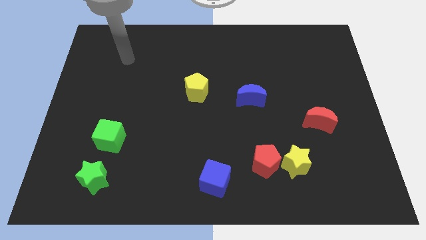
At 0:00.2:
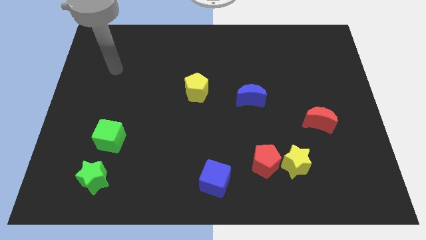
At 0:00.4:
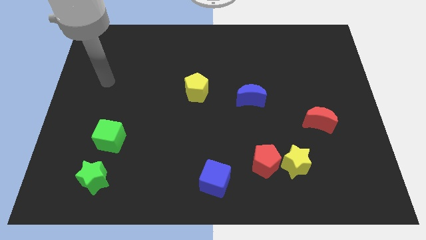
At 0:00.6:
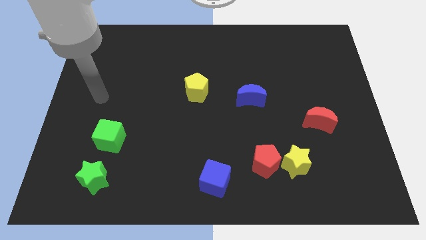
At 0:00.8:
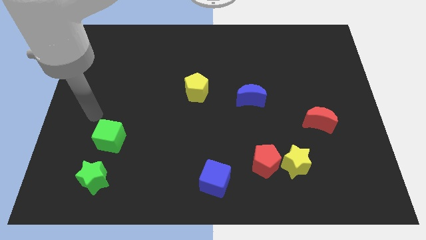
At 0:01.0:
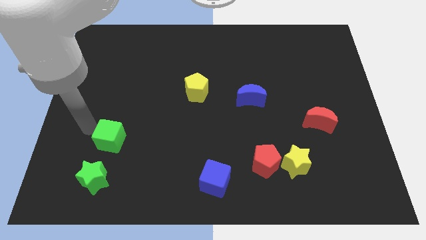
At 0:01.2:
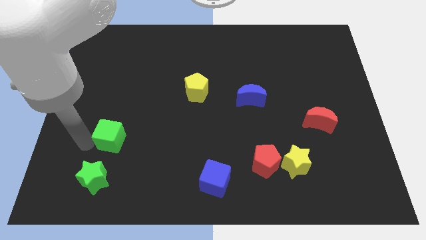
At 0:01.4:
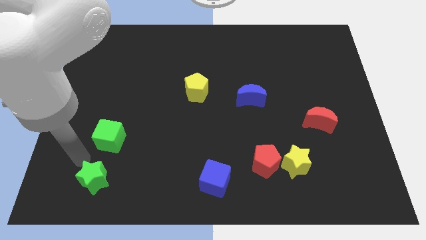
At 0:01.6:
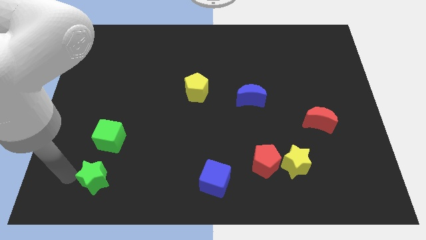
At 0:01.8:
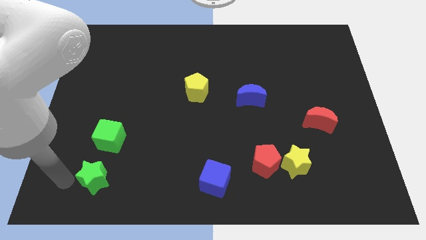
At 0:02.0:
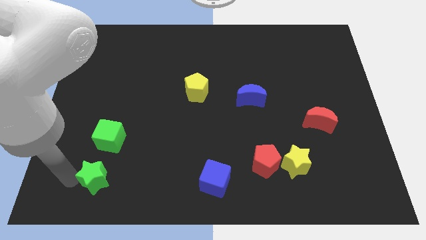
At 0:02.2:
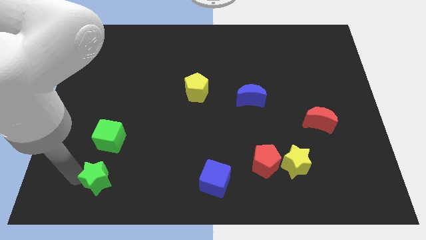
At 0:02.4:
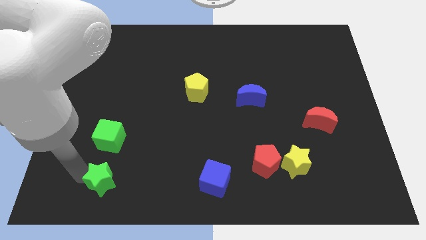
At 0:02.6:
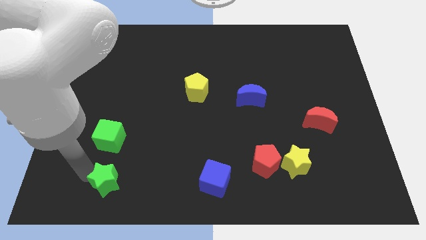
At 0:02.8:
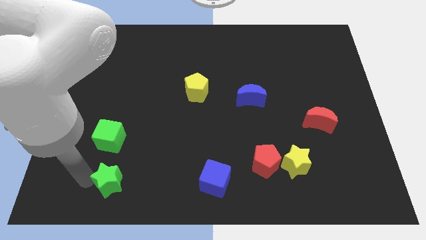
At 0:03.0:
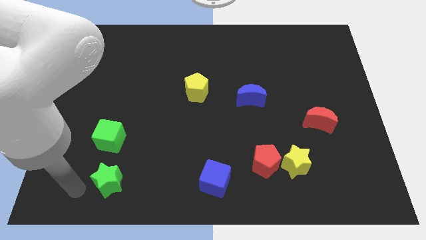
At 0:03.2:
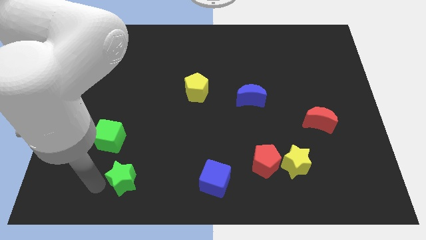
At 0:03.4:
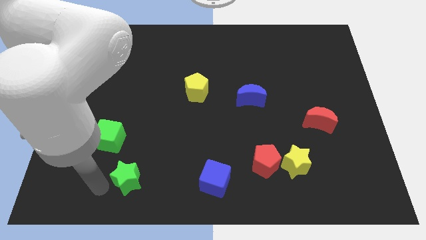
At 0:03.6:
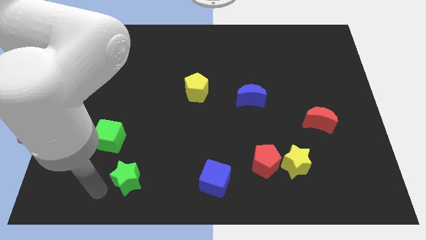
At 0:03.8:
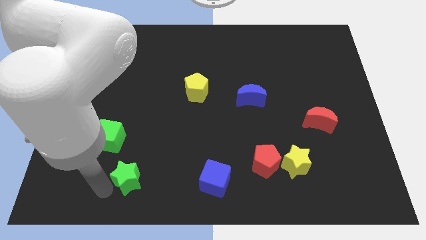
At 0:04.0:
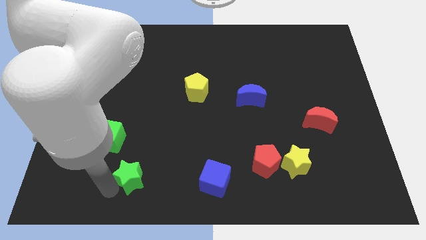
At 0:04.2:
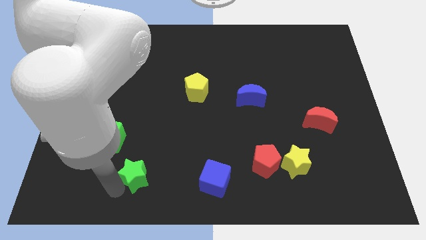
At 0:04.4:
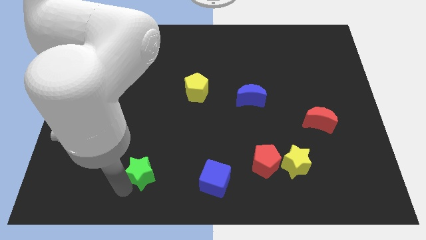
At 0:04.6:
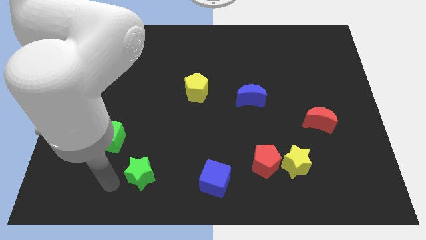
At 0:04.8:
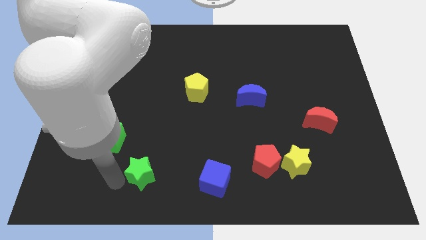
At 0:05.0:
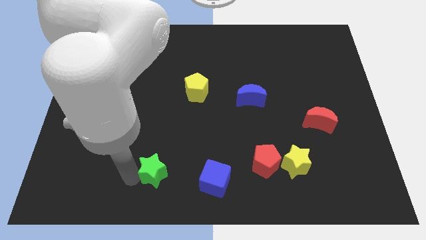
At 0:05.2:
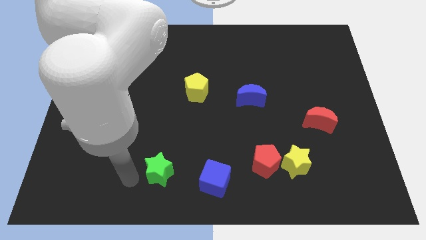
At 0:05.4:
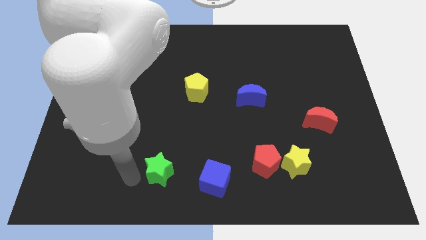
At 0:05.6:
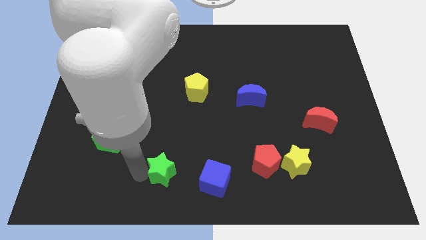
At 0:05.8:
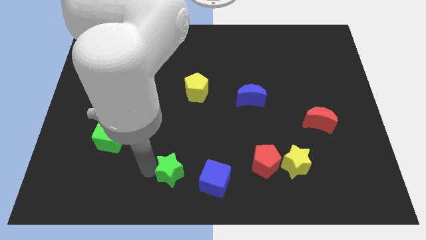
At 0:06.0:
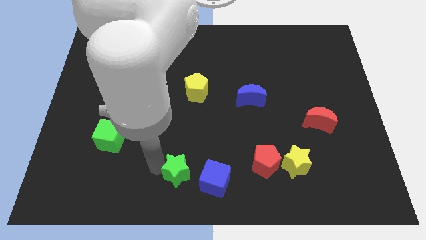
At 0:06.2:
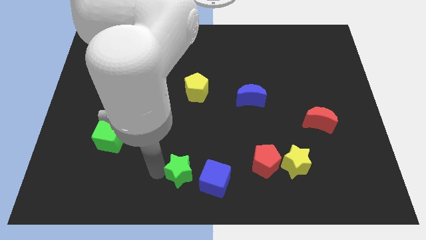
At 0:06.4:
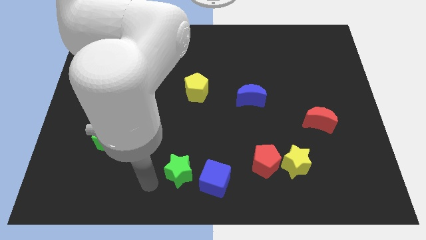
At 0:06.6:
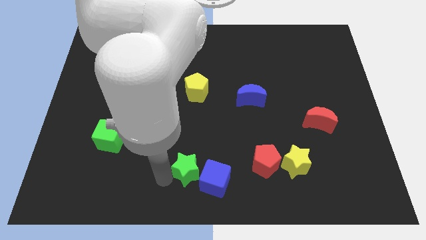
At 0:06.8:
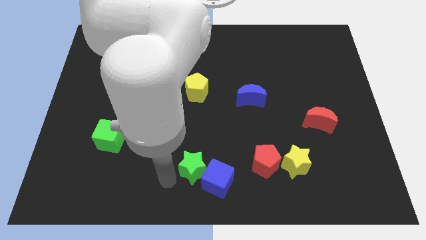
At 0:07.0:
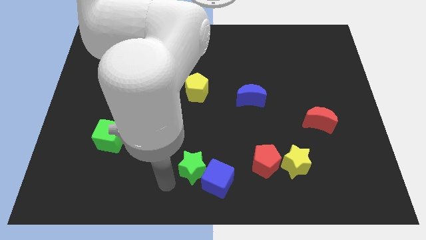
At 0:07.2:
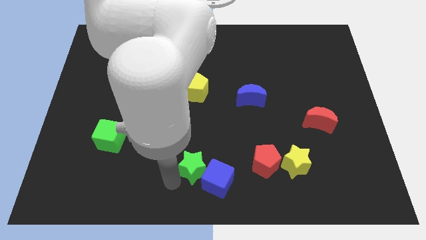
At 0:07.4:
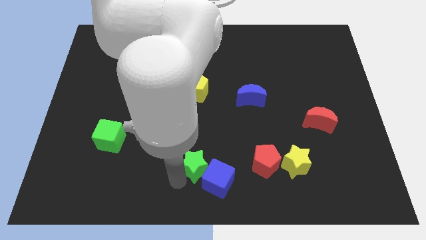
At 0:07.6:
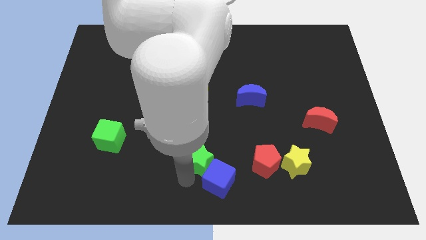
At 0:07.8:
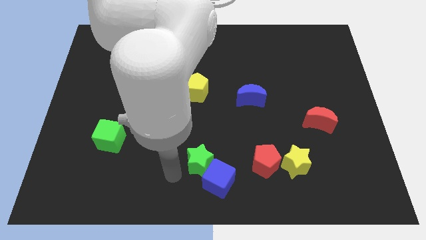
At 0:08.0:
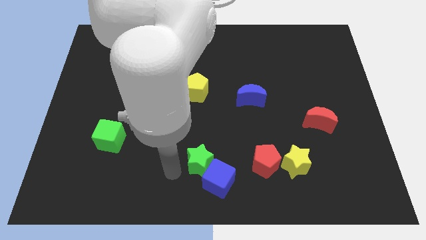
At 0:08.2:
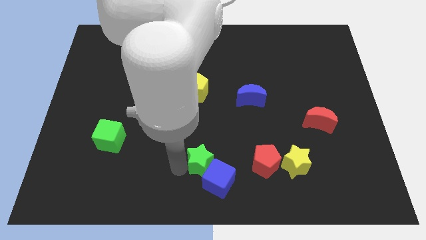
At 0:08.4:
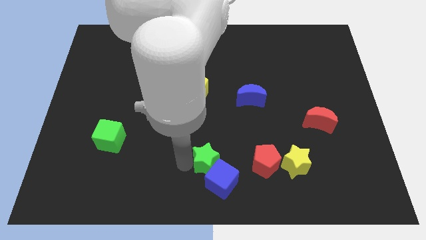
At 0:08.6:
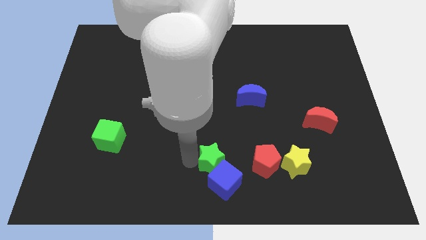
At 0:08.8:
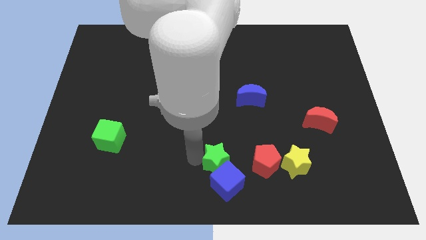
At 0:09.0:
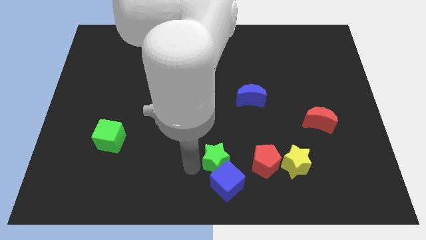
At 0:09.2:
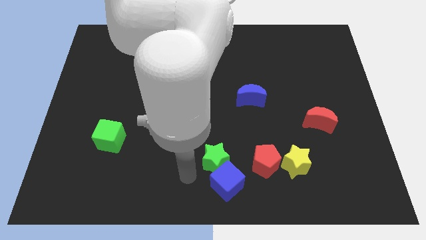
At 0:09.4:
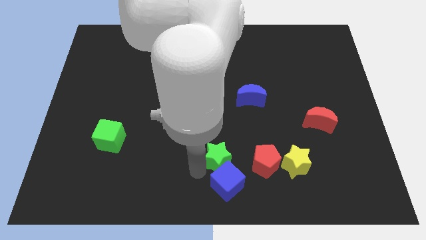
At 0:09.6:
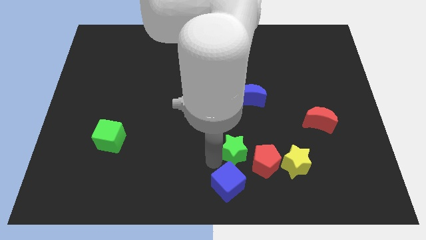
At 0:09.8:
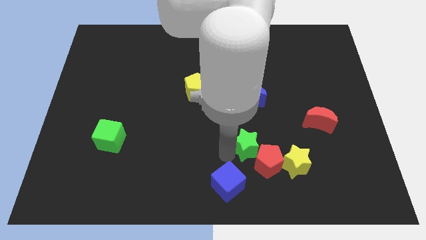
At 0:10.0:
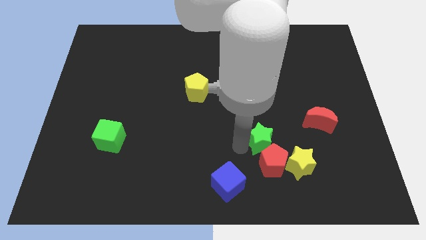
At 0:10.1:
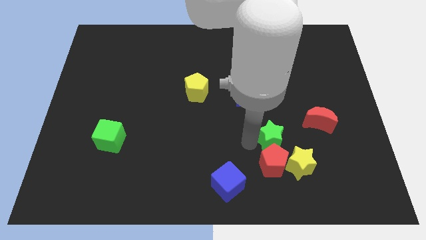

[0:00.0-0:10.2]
push the green star to the top right side of the red pentagon

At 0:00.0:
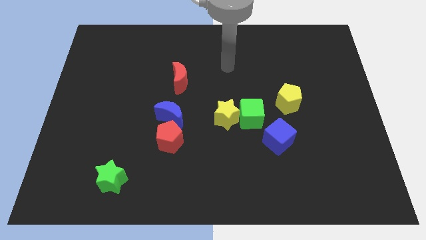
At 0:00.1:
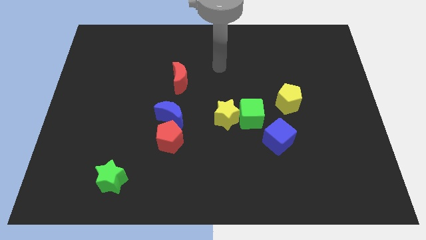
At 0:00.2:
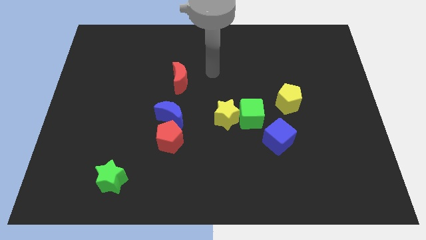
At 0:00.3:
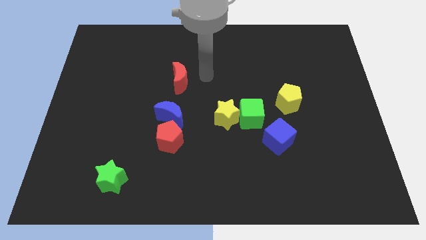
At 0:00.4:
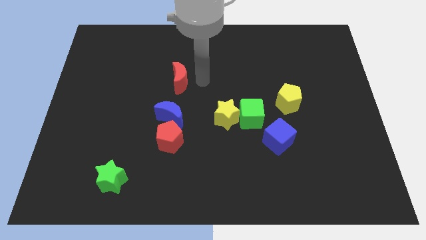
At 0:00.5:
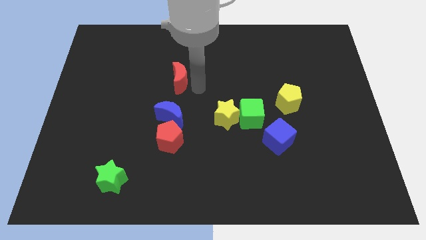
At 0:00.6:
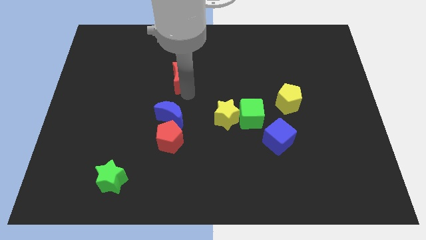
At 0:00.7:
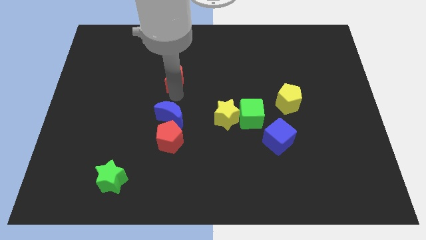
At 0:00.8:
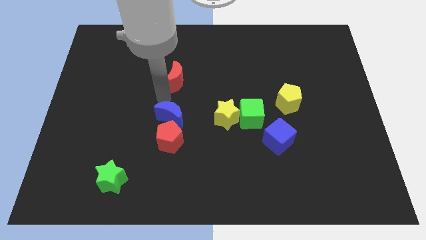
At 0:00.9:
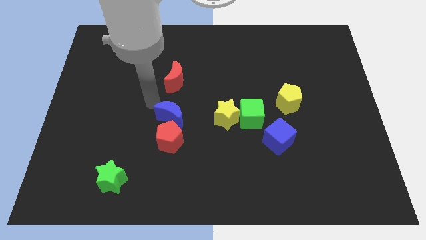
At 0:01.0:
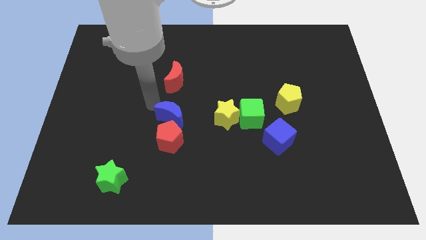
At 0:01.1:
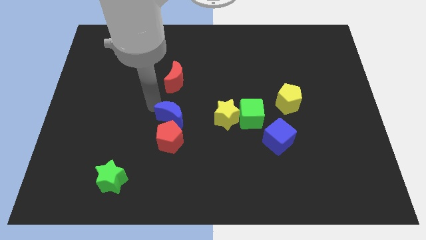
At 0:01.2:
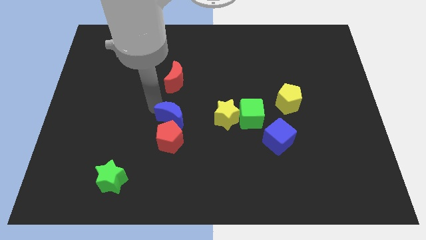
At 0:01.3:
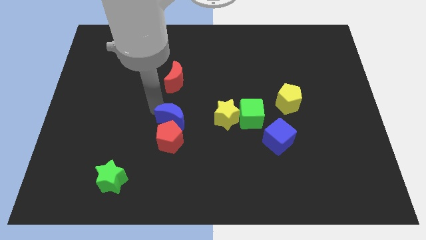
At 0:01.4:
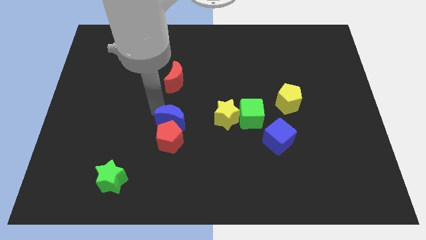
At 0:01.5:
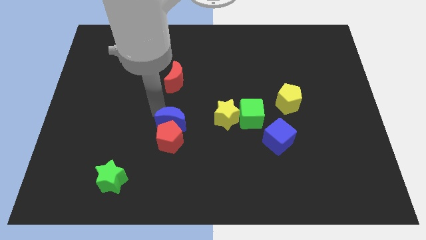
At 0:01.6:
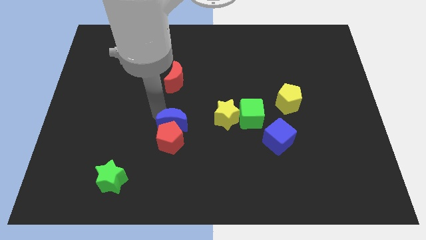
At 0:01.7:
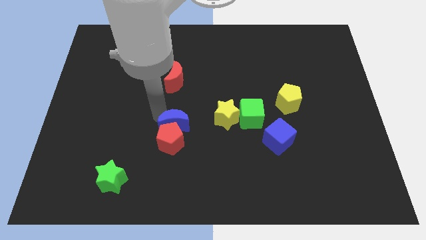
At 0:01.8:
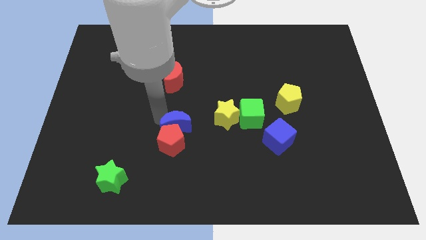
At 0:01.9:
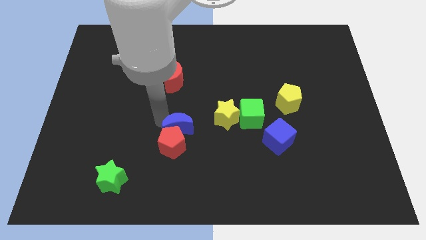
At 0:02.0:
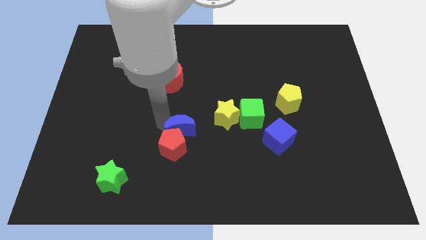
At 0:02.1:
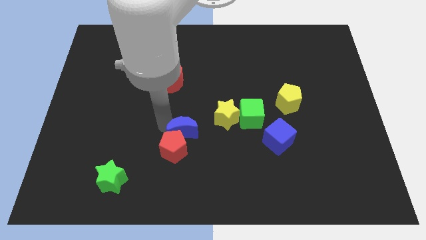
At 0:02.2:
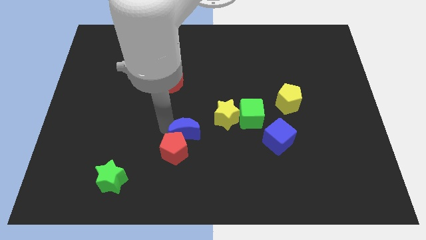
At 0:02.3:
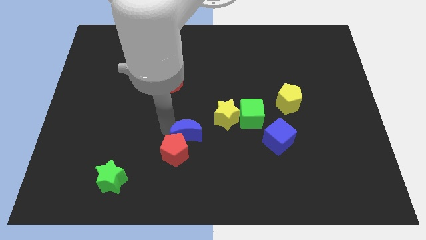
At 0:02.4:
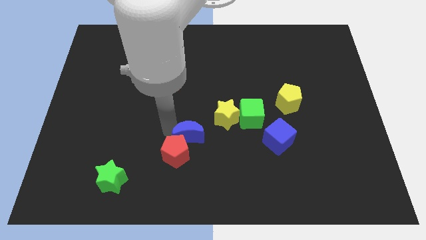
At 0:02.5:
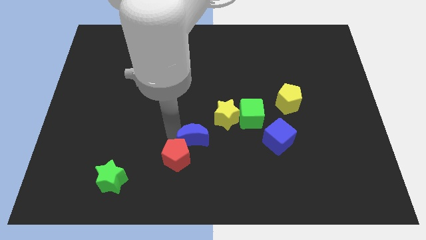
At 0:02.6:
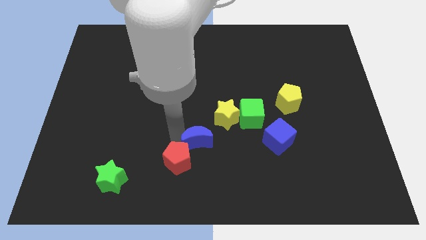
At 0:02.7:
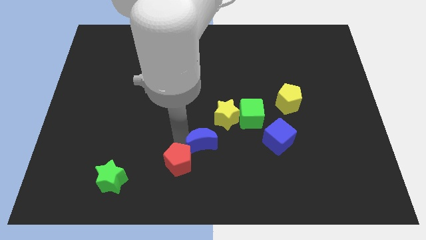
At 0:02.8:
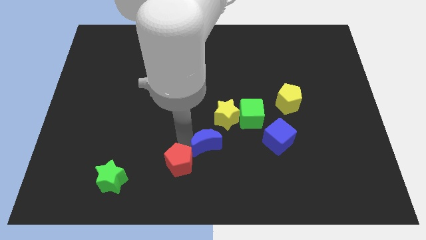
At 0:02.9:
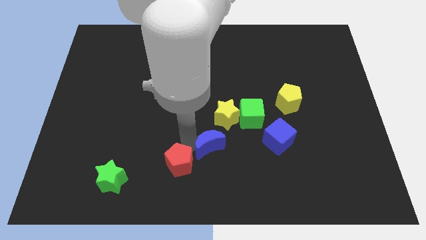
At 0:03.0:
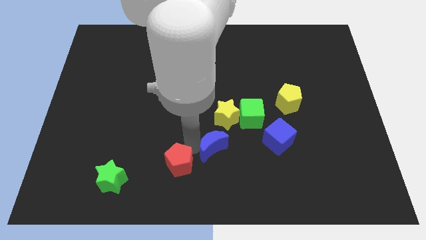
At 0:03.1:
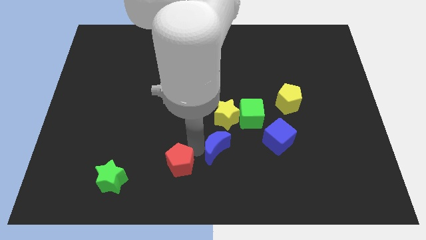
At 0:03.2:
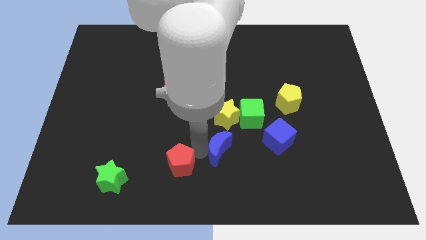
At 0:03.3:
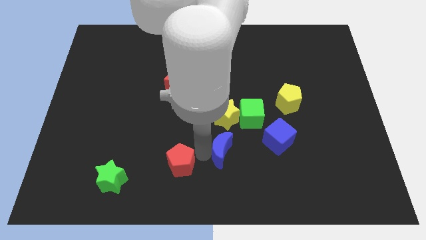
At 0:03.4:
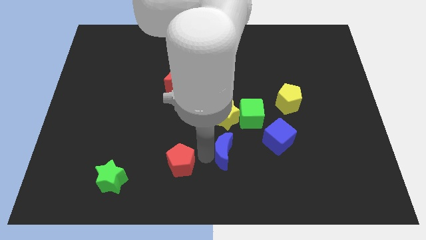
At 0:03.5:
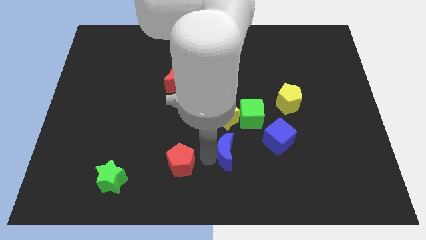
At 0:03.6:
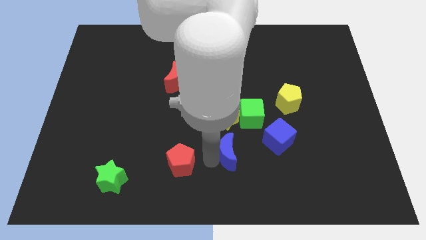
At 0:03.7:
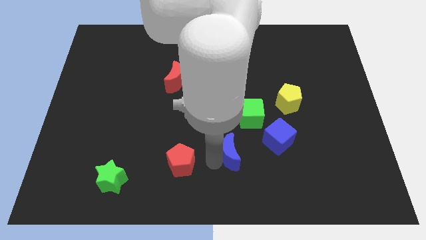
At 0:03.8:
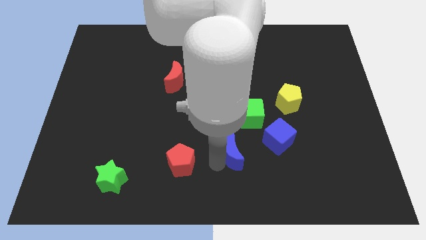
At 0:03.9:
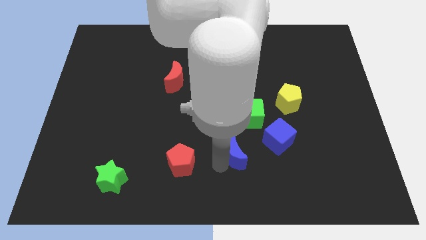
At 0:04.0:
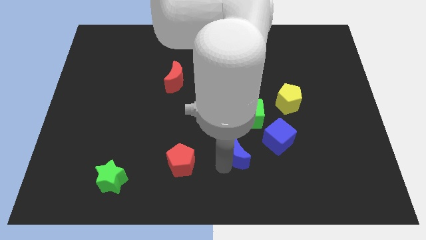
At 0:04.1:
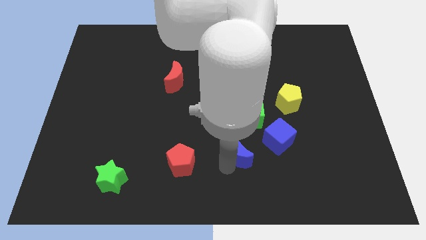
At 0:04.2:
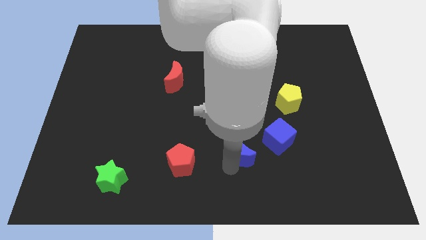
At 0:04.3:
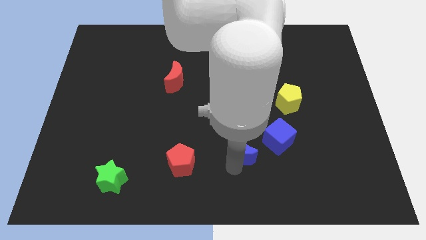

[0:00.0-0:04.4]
slide the blue moon to the bottom right of the yellow star
